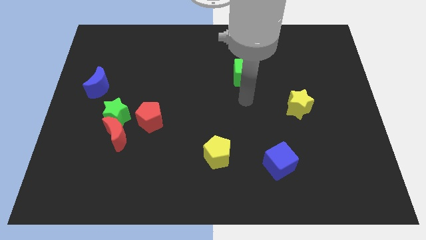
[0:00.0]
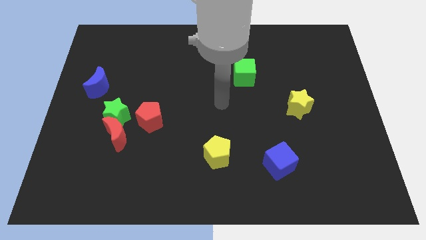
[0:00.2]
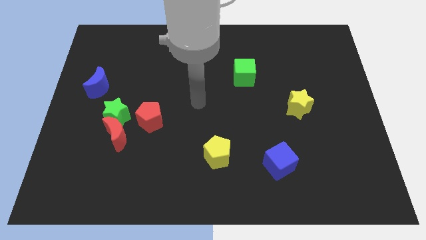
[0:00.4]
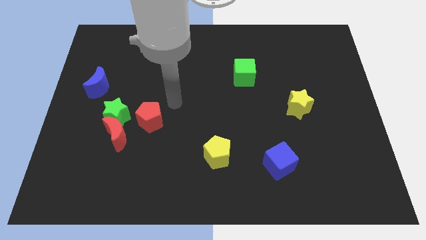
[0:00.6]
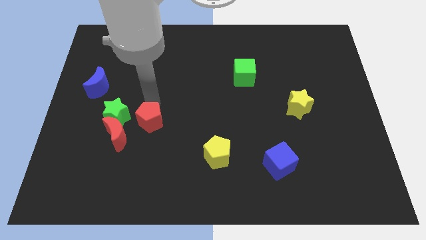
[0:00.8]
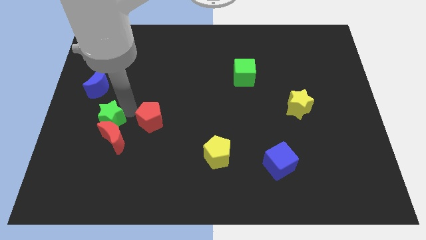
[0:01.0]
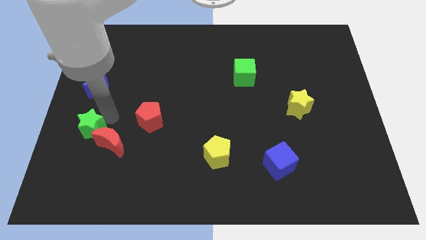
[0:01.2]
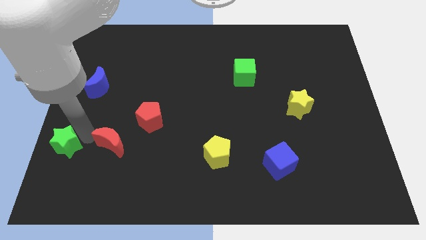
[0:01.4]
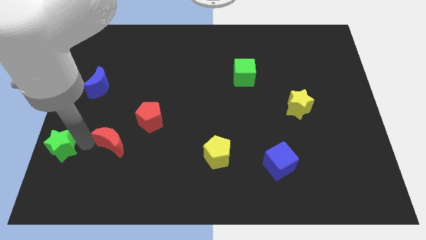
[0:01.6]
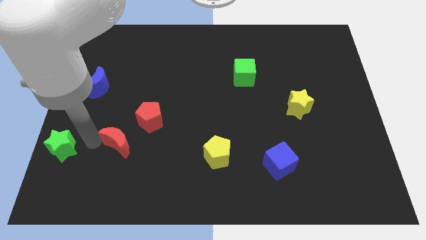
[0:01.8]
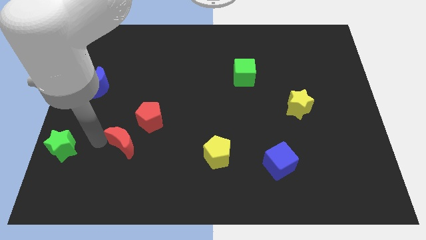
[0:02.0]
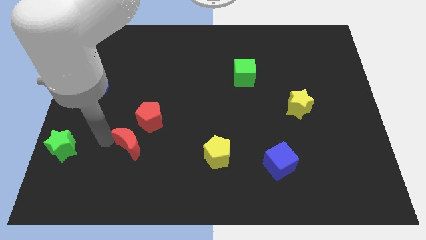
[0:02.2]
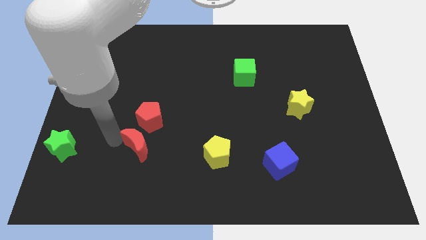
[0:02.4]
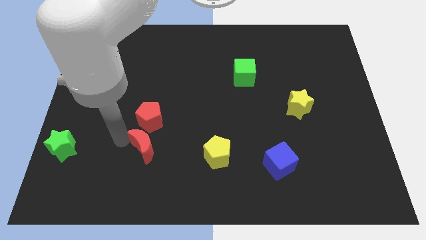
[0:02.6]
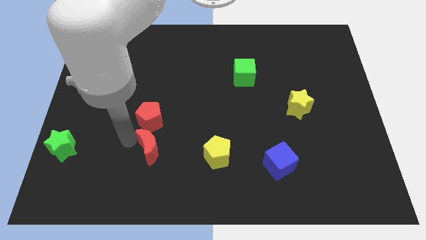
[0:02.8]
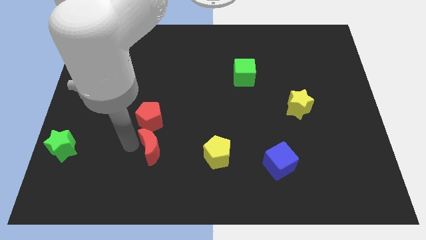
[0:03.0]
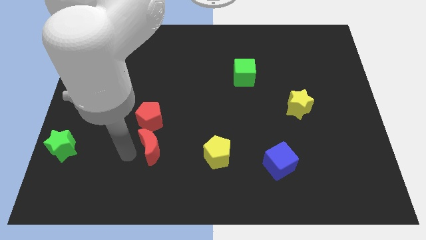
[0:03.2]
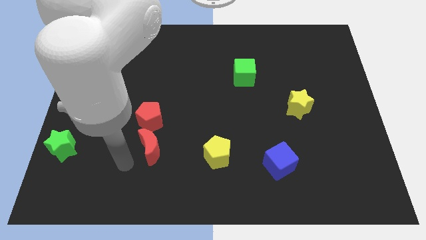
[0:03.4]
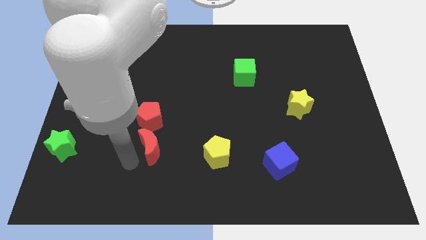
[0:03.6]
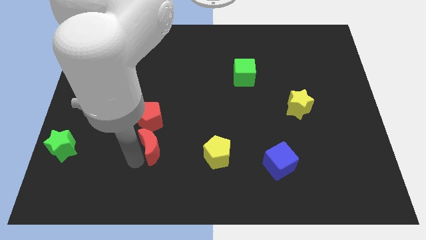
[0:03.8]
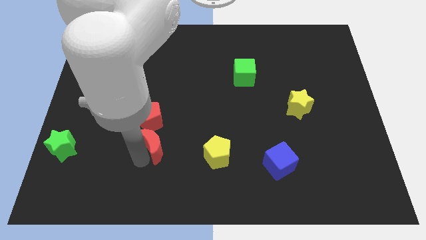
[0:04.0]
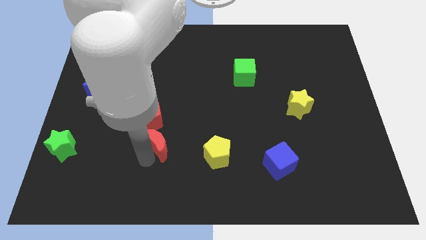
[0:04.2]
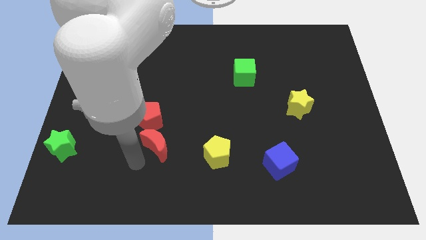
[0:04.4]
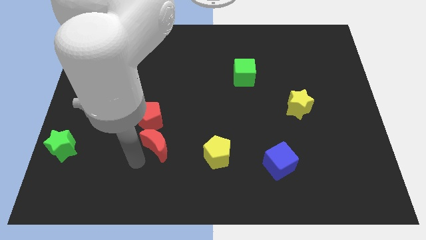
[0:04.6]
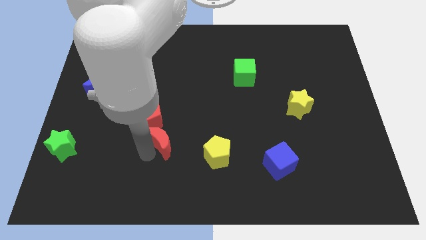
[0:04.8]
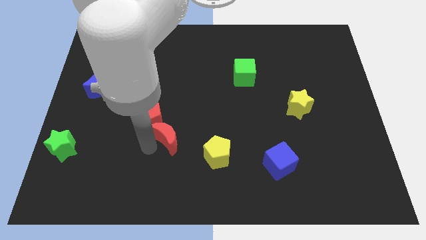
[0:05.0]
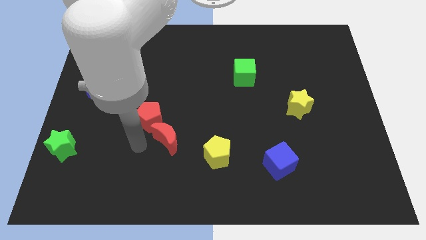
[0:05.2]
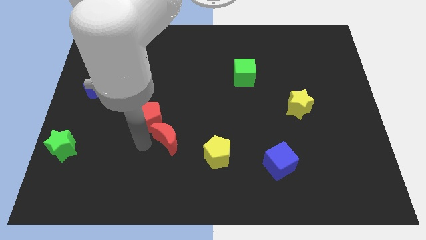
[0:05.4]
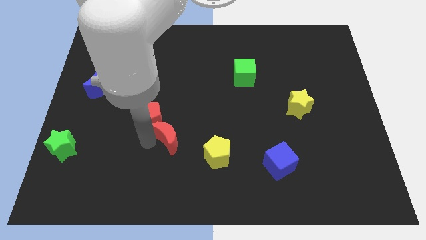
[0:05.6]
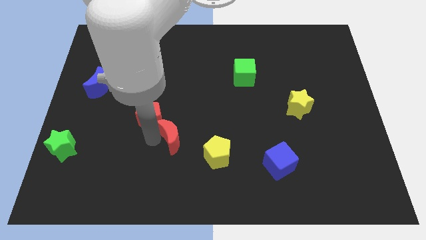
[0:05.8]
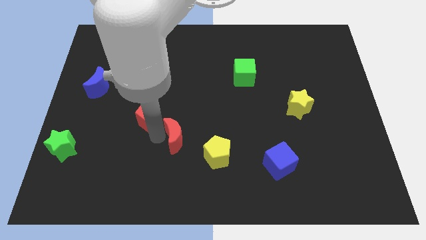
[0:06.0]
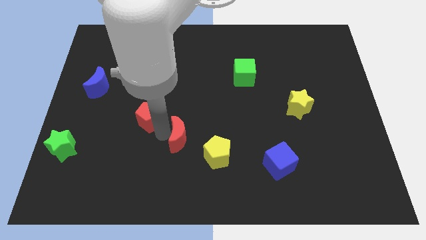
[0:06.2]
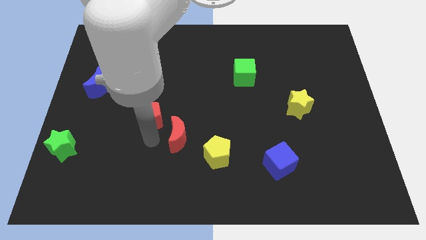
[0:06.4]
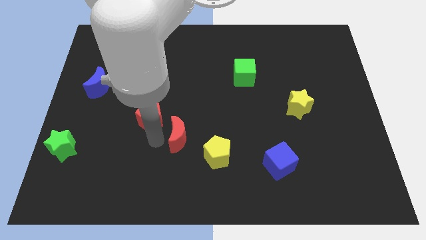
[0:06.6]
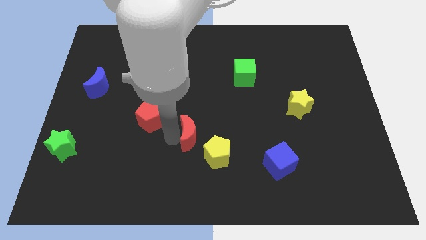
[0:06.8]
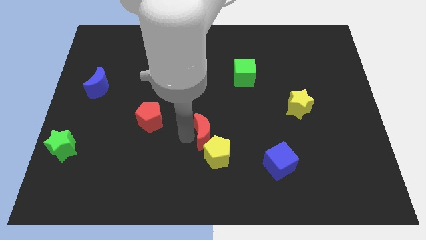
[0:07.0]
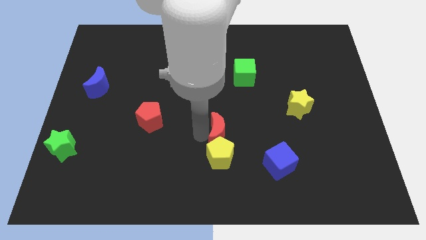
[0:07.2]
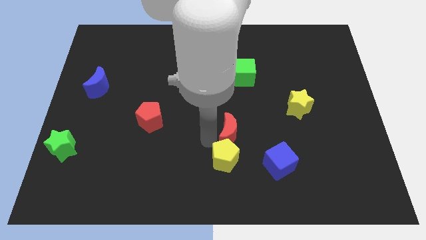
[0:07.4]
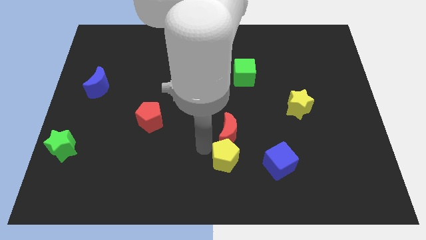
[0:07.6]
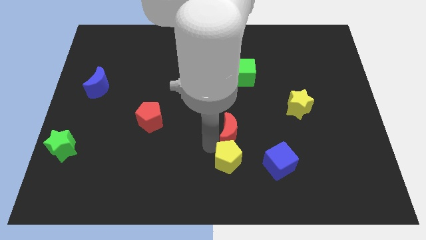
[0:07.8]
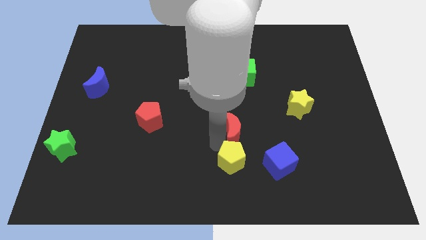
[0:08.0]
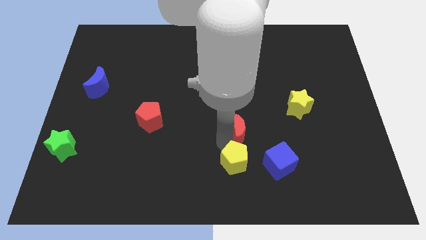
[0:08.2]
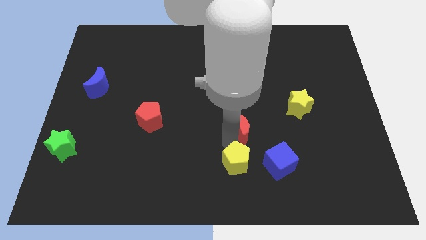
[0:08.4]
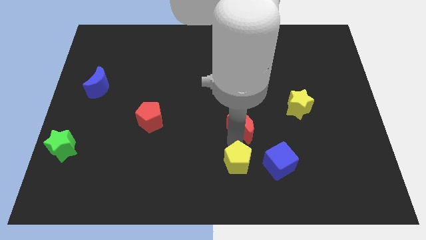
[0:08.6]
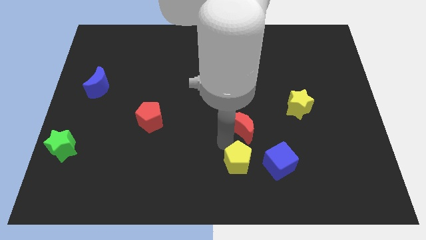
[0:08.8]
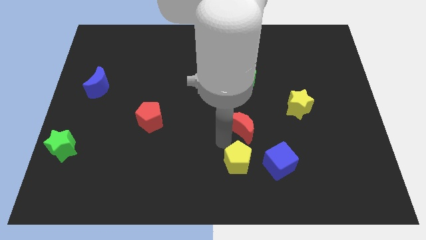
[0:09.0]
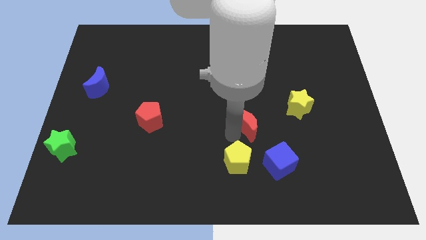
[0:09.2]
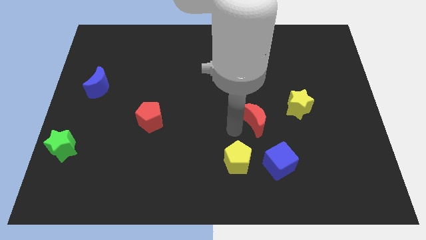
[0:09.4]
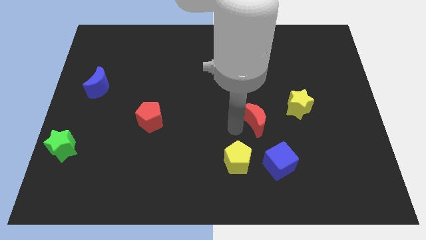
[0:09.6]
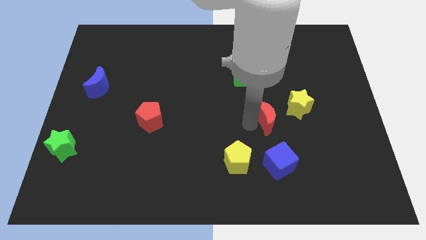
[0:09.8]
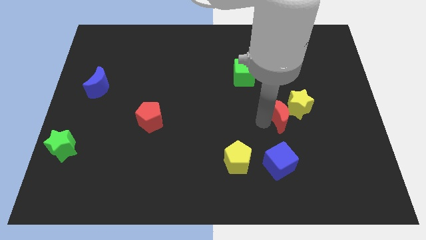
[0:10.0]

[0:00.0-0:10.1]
slide the red moon close to the yellow star

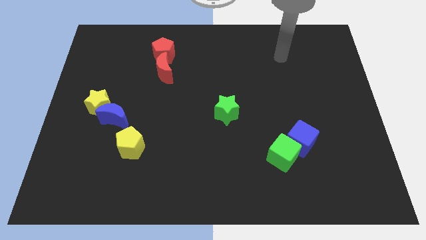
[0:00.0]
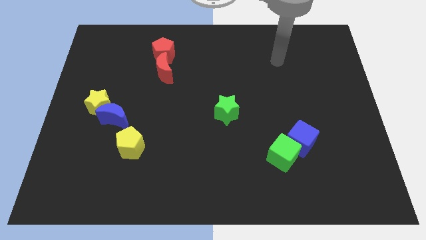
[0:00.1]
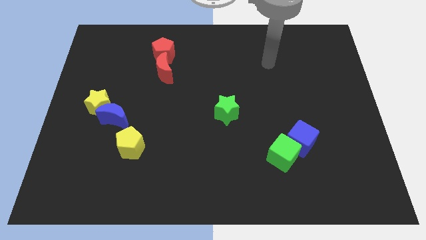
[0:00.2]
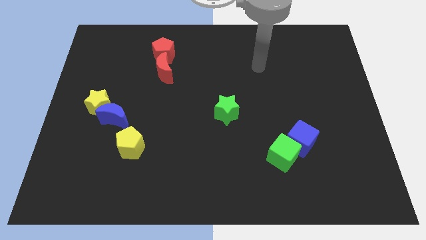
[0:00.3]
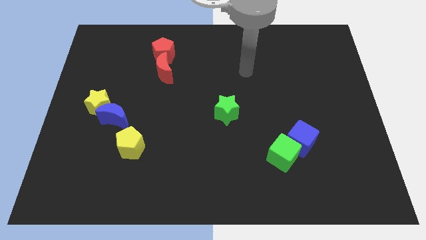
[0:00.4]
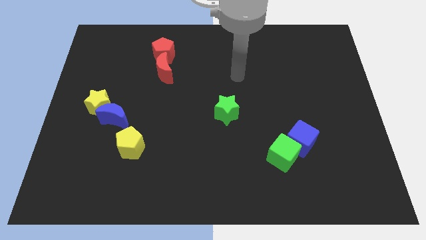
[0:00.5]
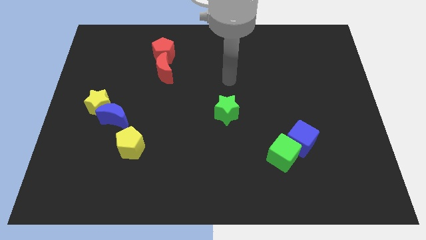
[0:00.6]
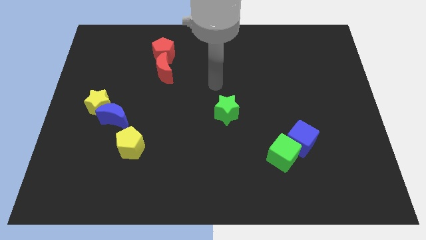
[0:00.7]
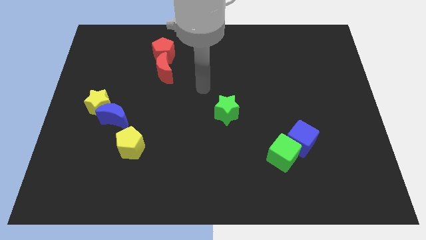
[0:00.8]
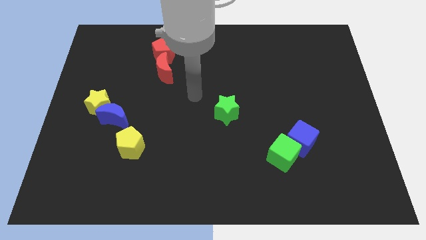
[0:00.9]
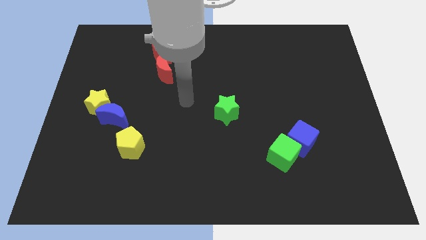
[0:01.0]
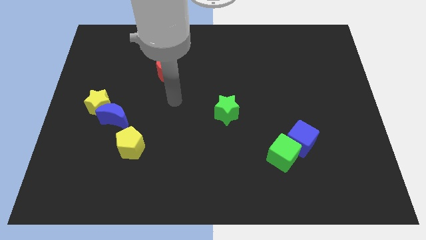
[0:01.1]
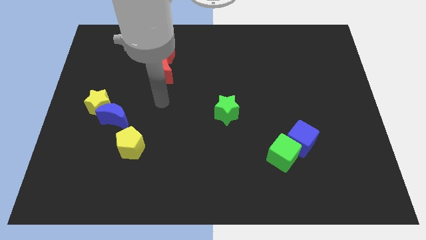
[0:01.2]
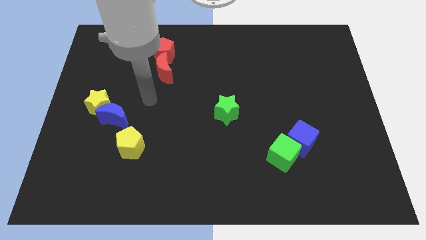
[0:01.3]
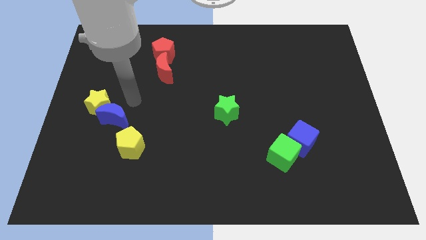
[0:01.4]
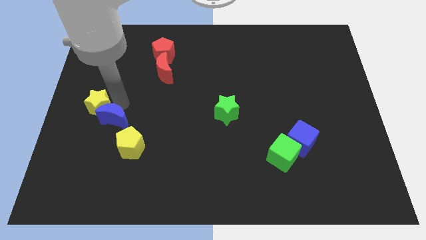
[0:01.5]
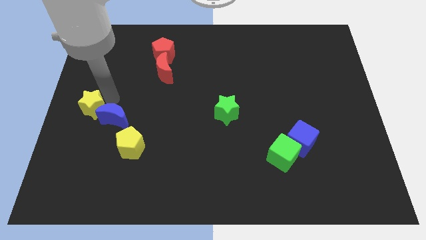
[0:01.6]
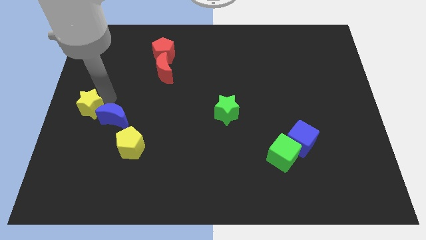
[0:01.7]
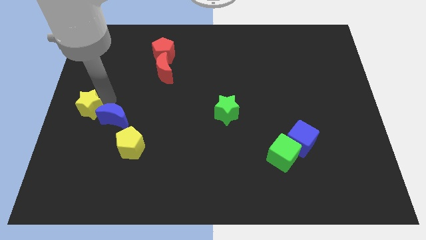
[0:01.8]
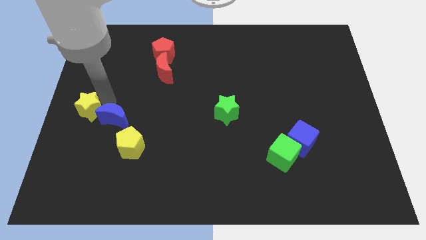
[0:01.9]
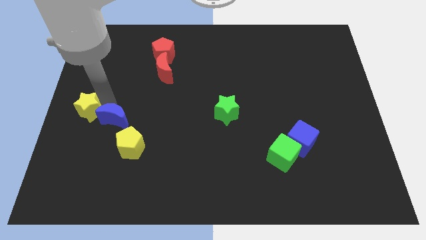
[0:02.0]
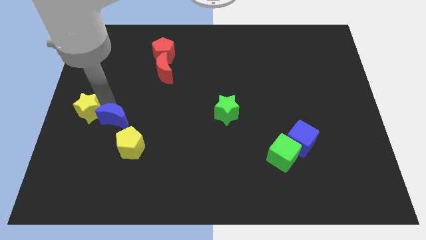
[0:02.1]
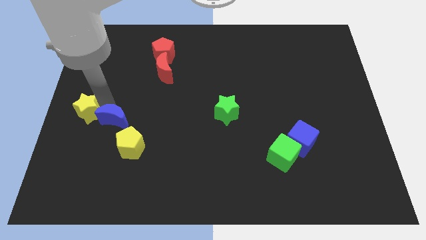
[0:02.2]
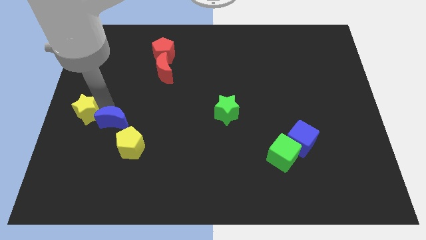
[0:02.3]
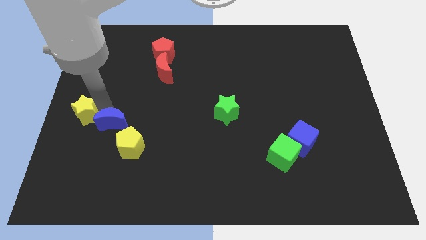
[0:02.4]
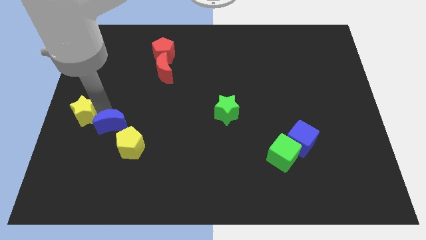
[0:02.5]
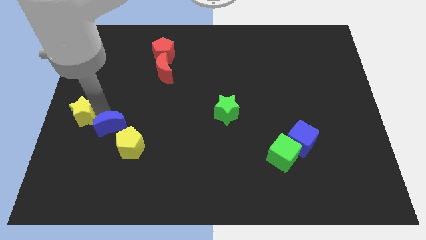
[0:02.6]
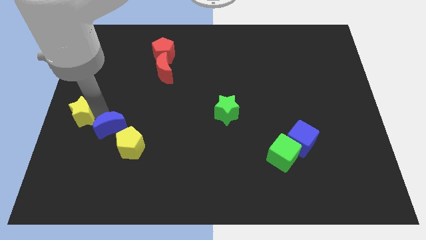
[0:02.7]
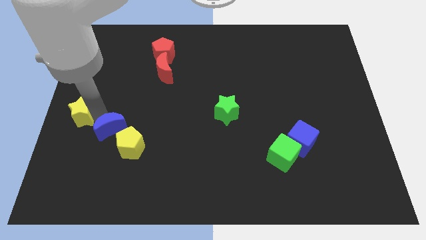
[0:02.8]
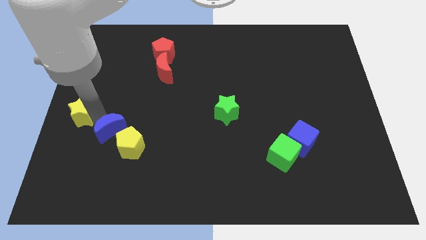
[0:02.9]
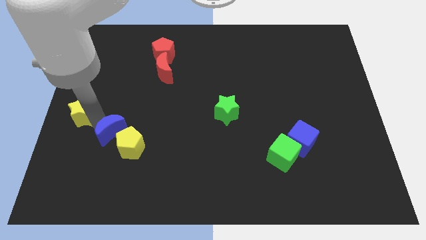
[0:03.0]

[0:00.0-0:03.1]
move the blue moon towards the yellow pentagon
